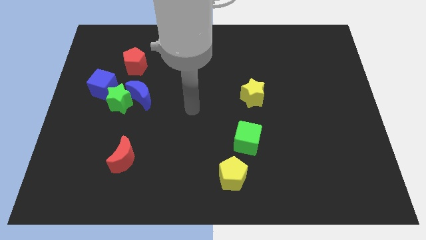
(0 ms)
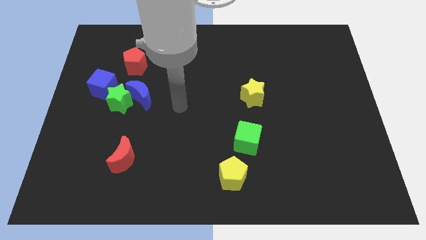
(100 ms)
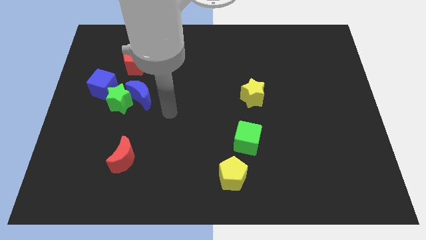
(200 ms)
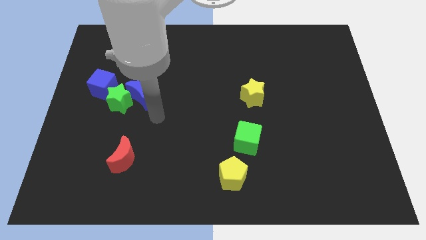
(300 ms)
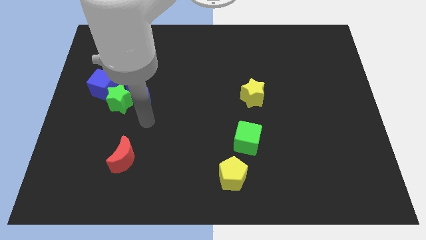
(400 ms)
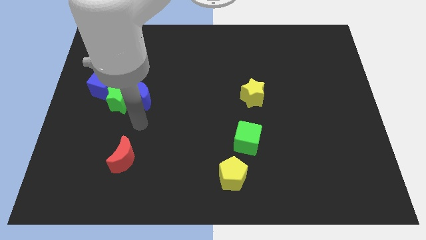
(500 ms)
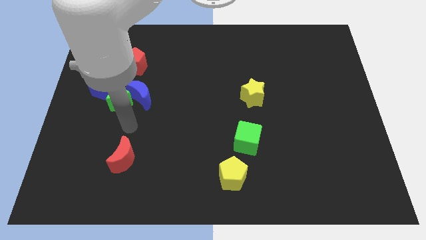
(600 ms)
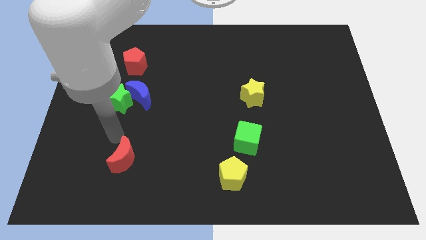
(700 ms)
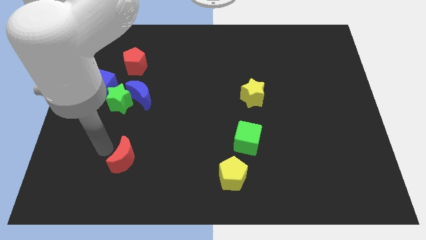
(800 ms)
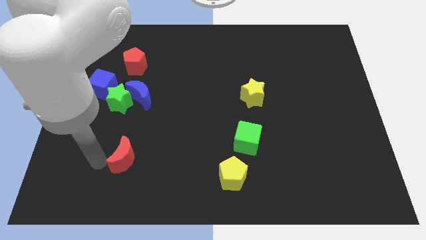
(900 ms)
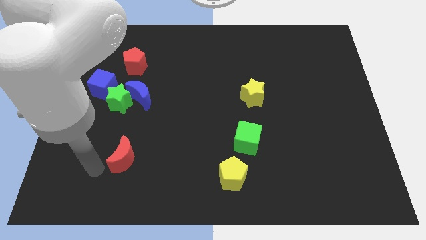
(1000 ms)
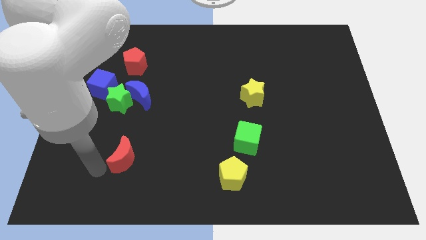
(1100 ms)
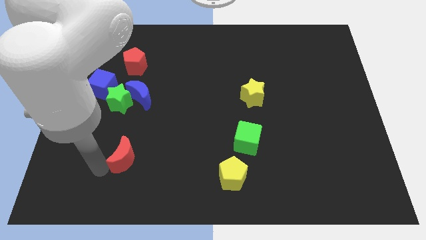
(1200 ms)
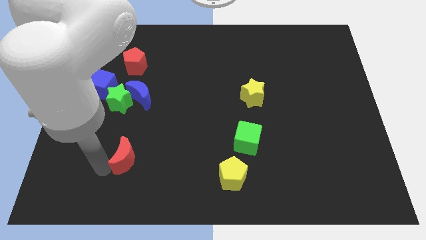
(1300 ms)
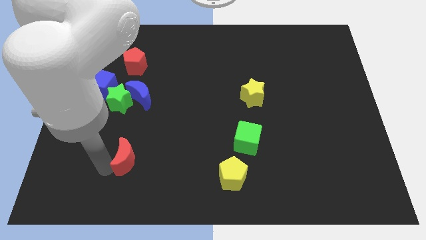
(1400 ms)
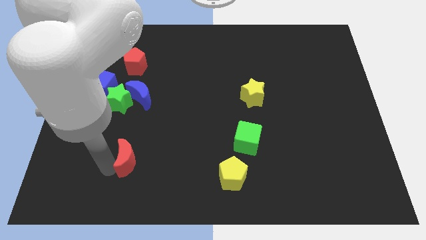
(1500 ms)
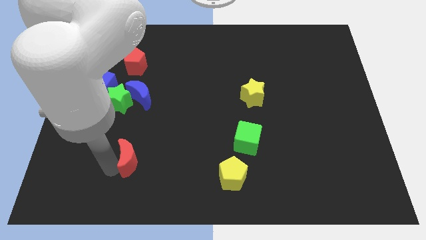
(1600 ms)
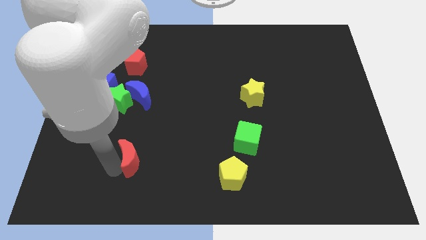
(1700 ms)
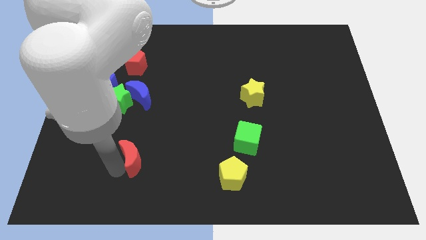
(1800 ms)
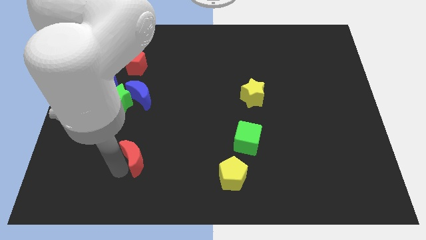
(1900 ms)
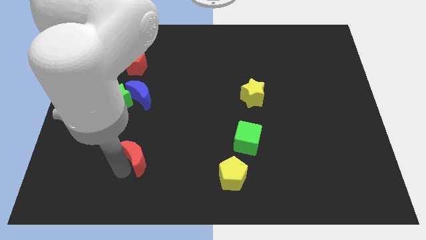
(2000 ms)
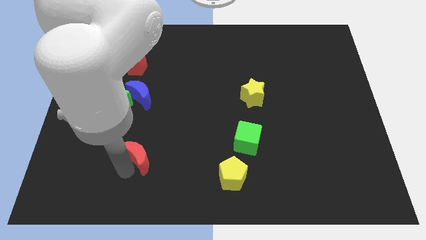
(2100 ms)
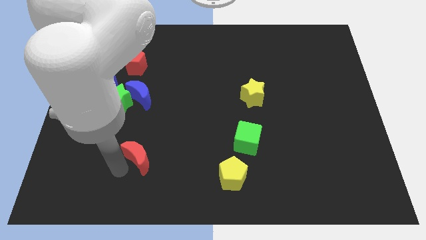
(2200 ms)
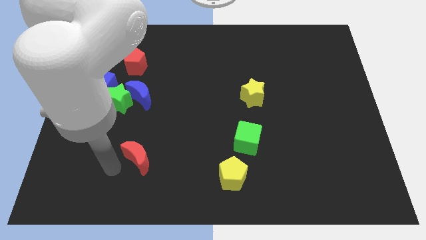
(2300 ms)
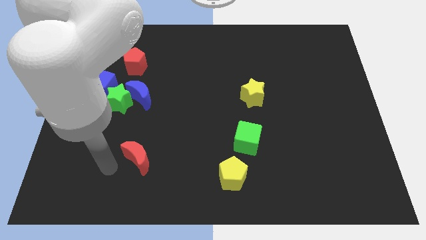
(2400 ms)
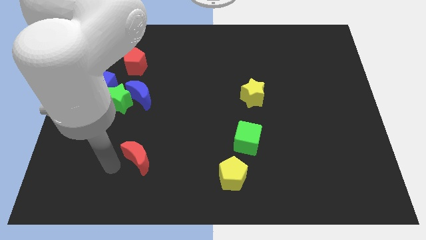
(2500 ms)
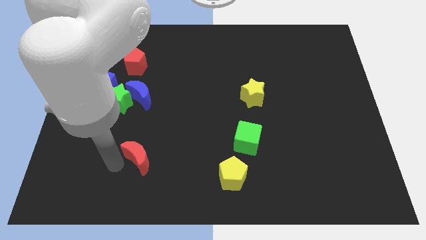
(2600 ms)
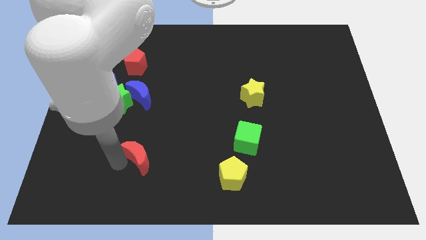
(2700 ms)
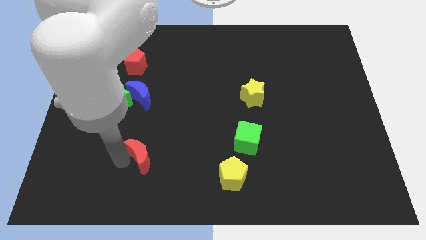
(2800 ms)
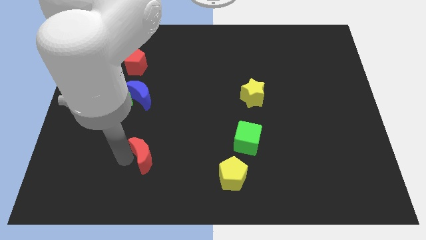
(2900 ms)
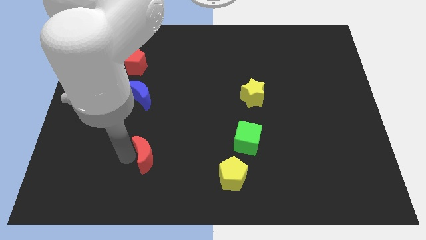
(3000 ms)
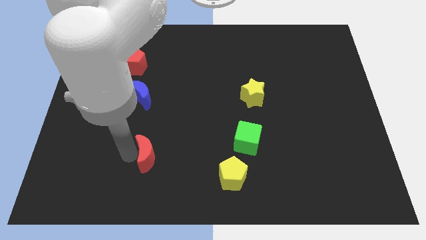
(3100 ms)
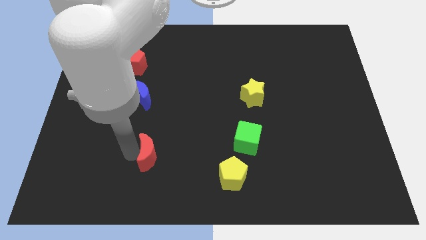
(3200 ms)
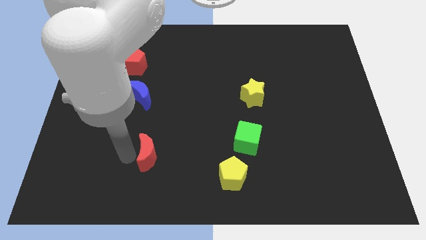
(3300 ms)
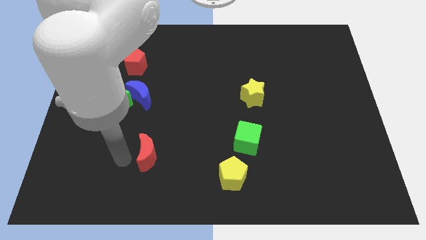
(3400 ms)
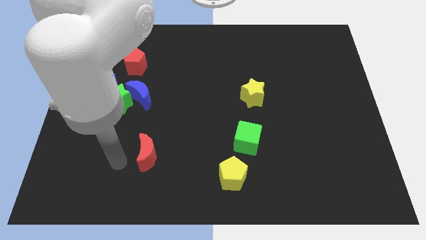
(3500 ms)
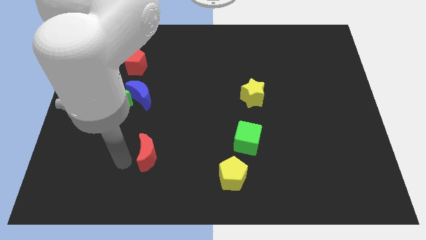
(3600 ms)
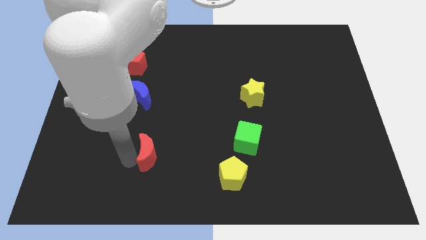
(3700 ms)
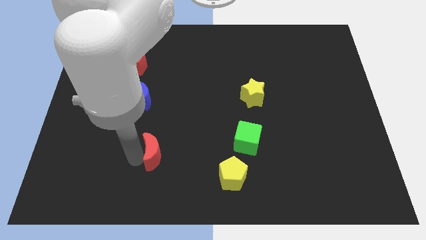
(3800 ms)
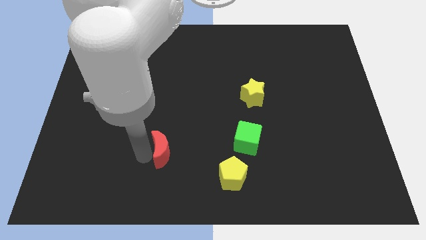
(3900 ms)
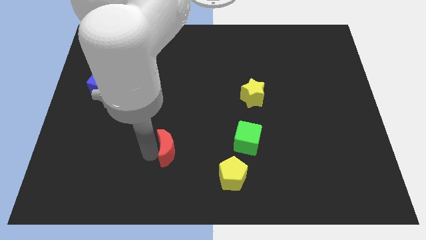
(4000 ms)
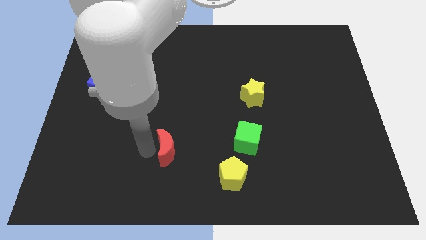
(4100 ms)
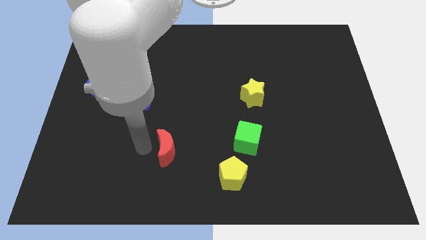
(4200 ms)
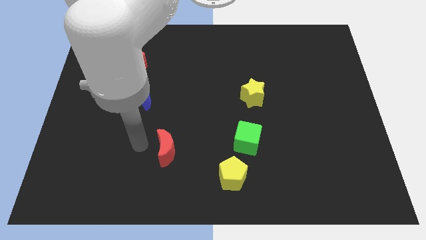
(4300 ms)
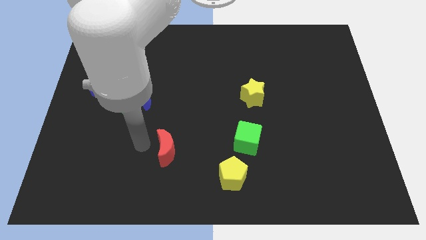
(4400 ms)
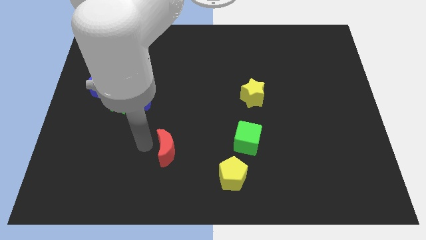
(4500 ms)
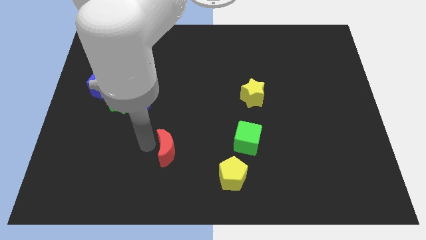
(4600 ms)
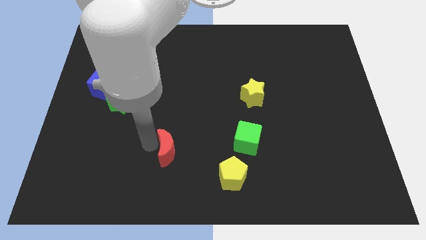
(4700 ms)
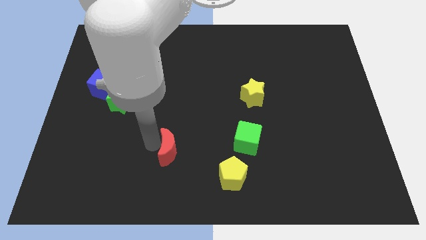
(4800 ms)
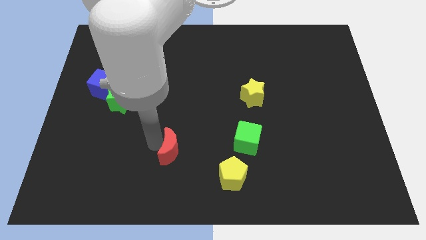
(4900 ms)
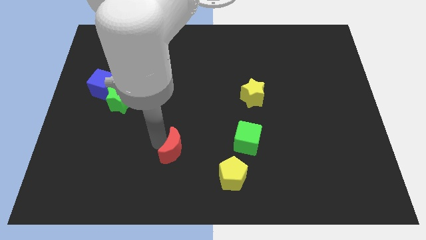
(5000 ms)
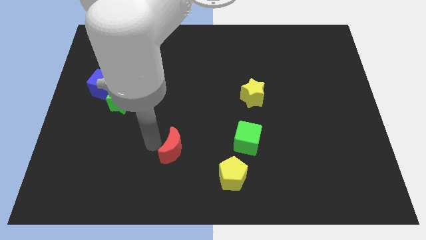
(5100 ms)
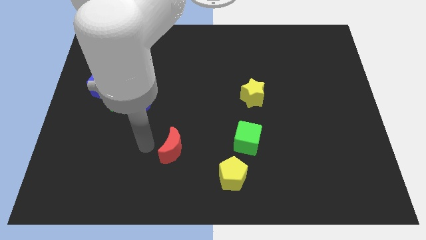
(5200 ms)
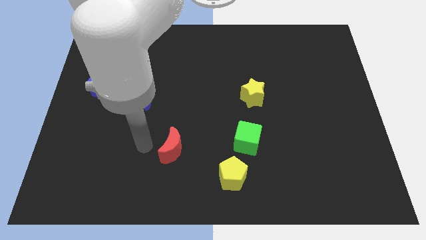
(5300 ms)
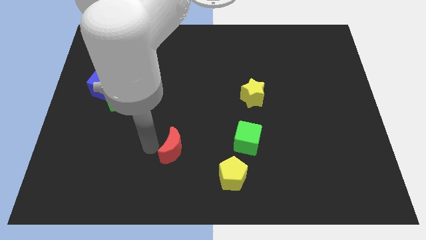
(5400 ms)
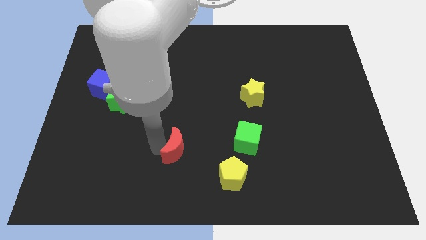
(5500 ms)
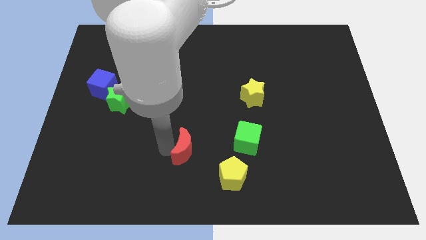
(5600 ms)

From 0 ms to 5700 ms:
push the red moon to the top left of the yellow pentagon
